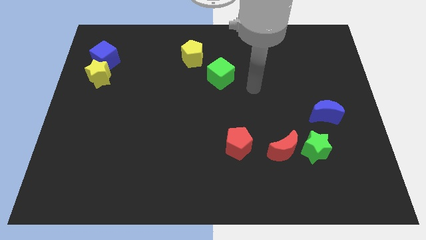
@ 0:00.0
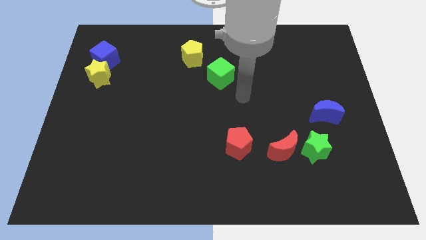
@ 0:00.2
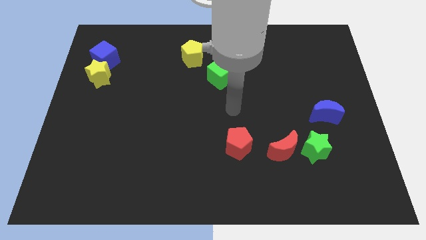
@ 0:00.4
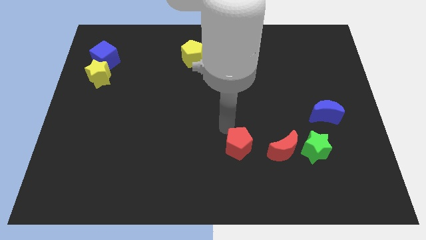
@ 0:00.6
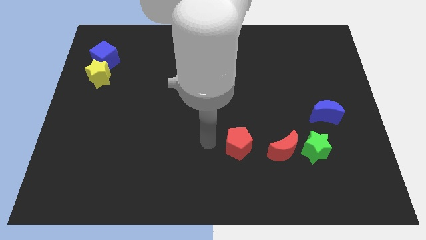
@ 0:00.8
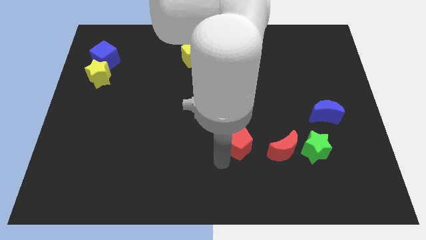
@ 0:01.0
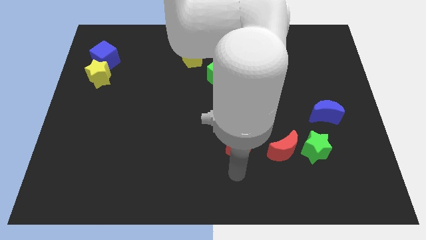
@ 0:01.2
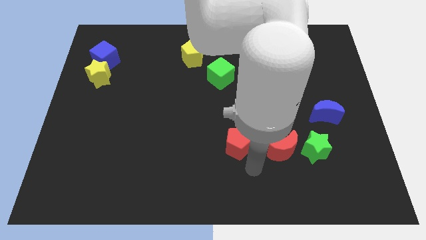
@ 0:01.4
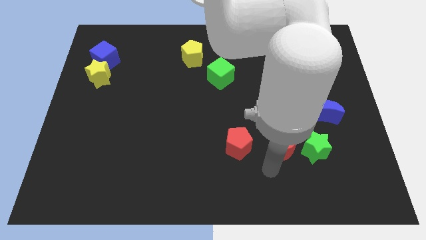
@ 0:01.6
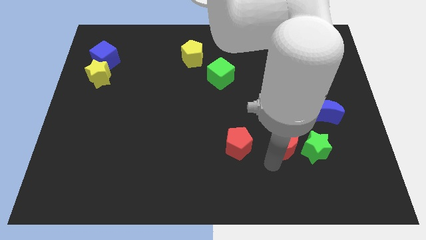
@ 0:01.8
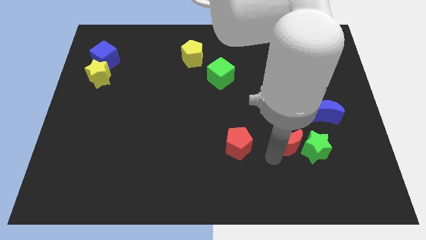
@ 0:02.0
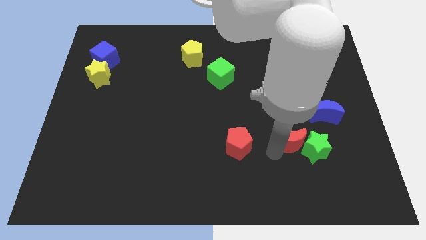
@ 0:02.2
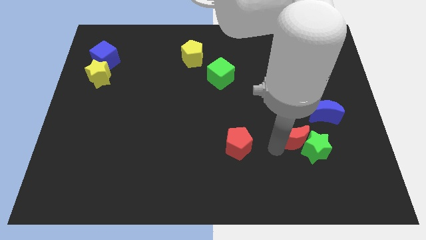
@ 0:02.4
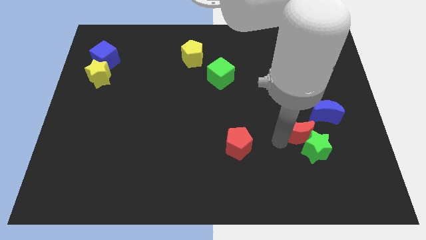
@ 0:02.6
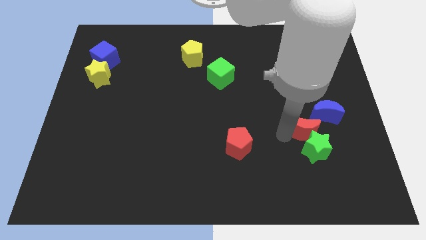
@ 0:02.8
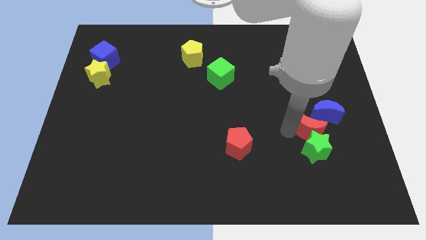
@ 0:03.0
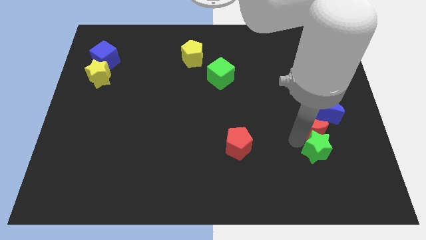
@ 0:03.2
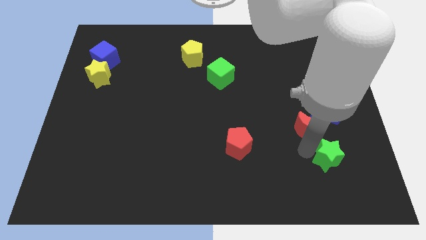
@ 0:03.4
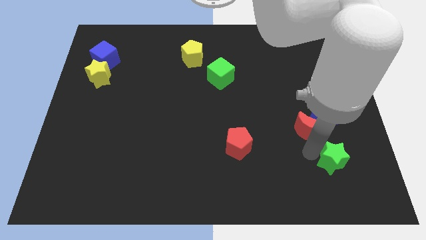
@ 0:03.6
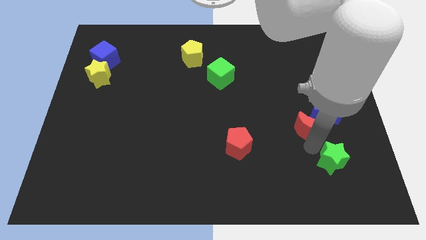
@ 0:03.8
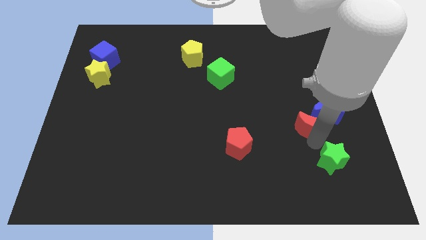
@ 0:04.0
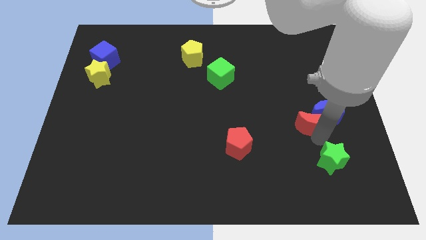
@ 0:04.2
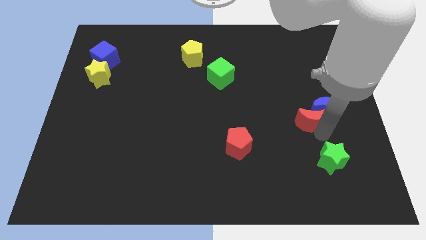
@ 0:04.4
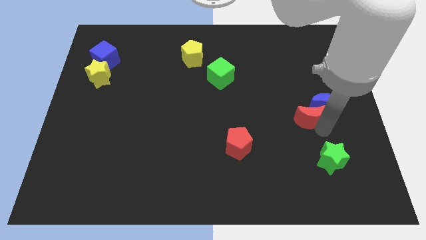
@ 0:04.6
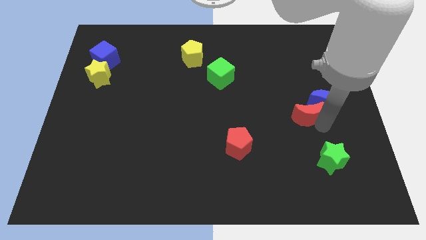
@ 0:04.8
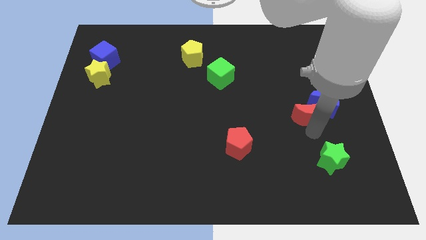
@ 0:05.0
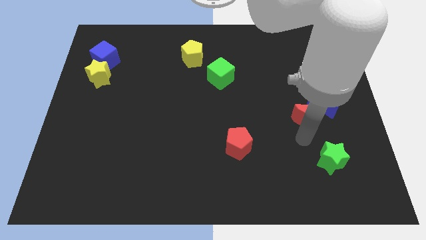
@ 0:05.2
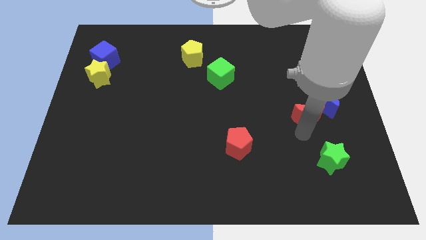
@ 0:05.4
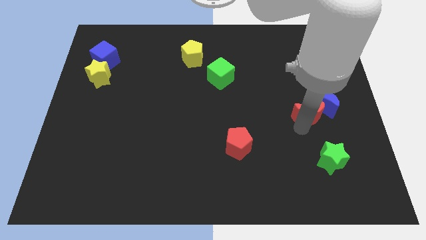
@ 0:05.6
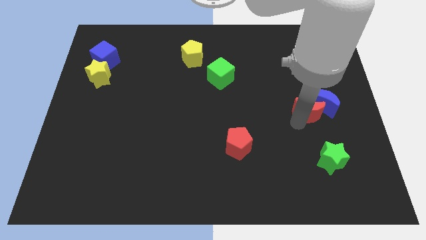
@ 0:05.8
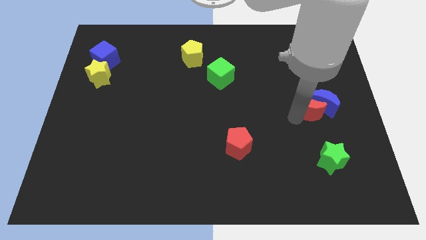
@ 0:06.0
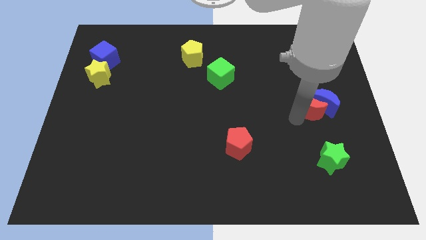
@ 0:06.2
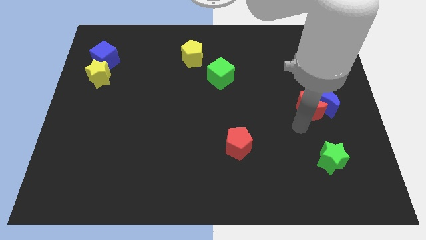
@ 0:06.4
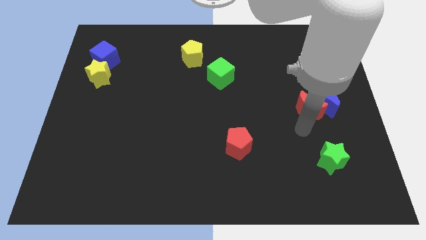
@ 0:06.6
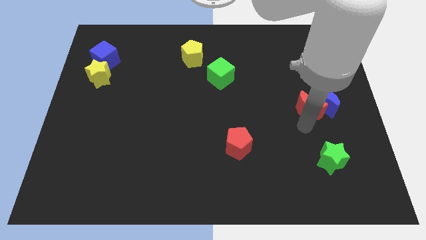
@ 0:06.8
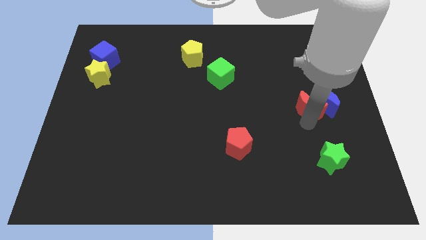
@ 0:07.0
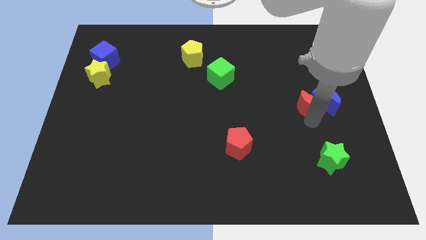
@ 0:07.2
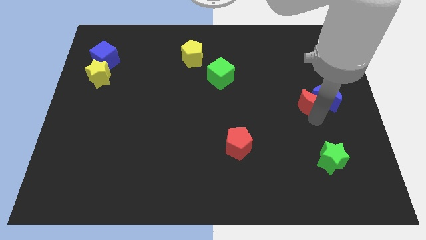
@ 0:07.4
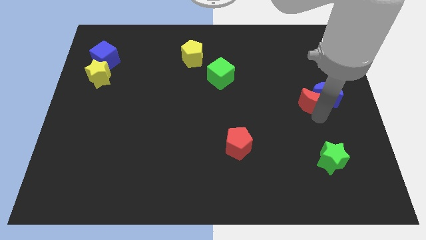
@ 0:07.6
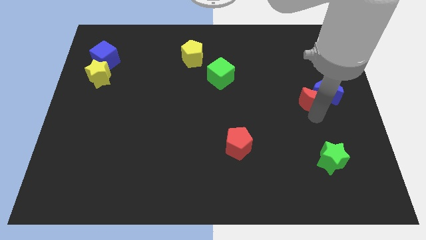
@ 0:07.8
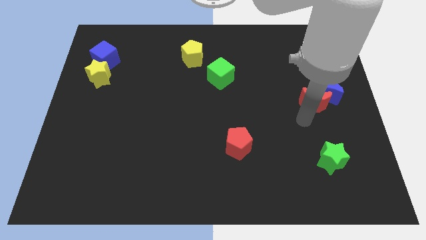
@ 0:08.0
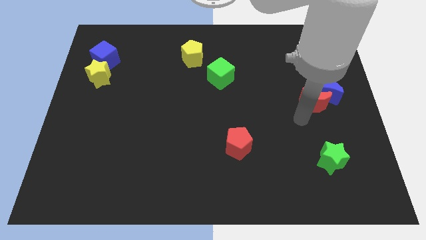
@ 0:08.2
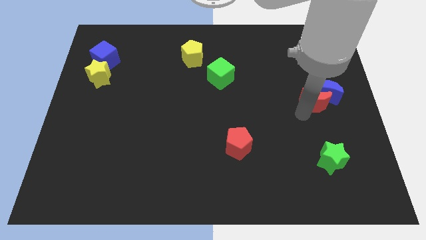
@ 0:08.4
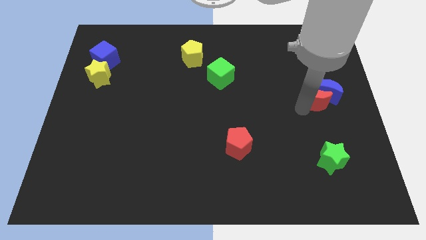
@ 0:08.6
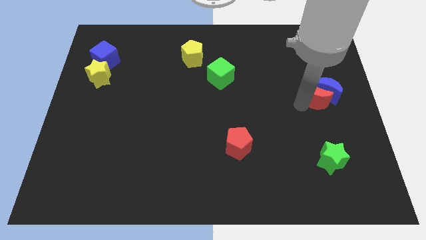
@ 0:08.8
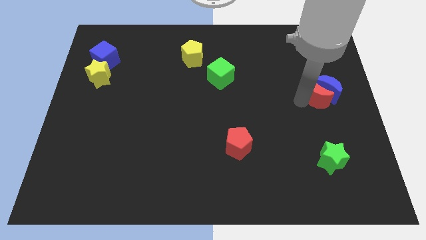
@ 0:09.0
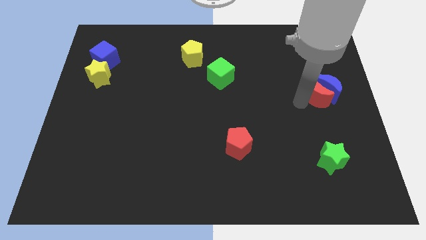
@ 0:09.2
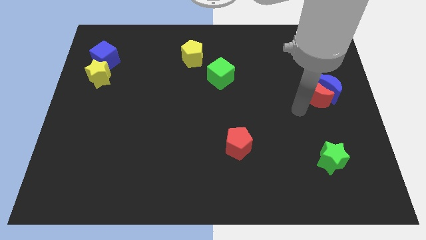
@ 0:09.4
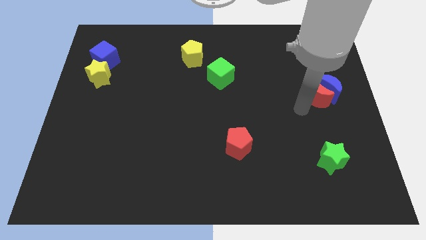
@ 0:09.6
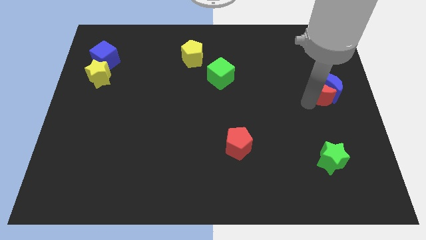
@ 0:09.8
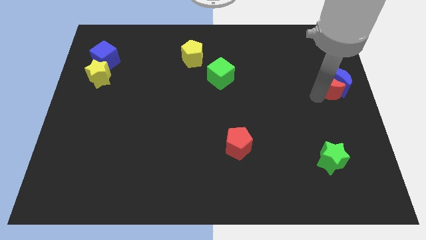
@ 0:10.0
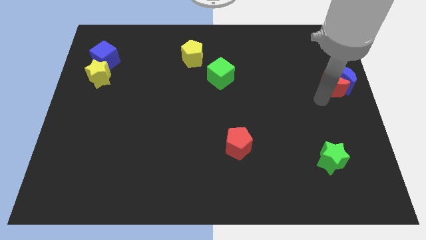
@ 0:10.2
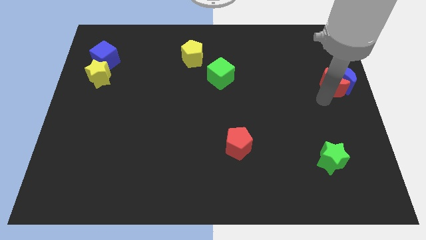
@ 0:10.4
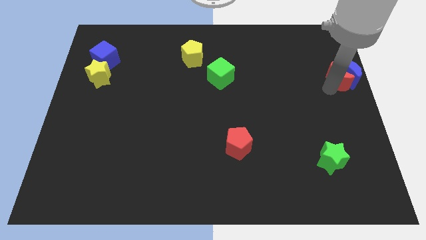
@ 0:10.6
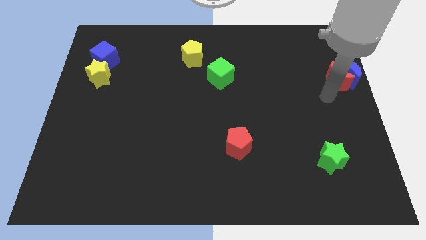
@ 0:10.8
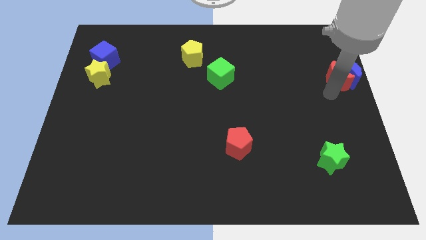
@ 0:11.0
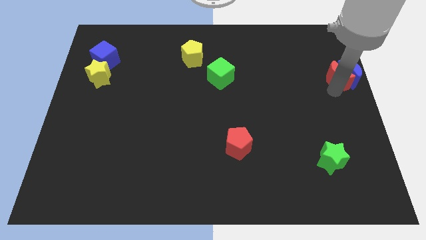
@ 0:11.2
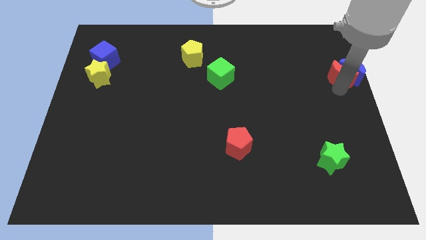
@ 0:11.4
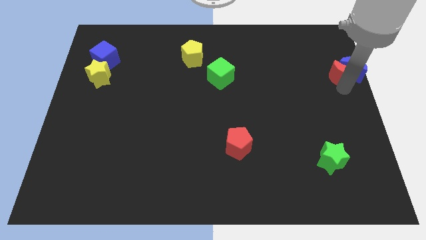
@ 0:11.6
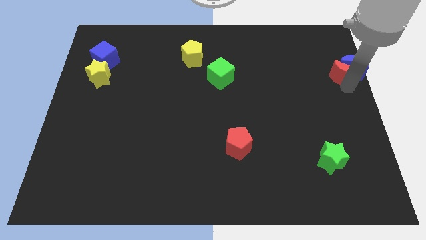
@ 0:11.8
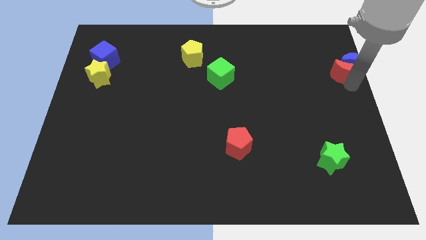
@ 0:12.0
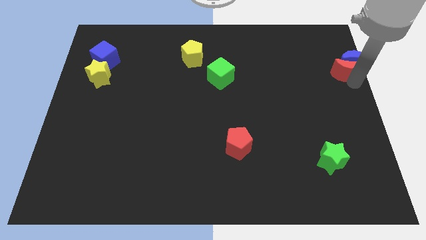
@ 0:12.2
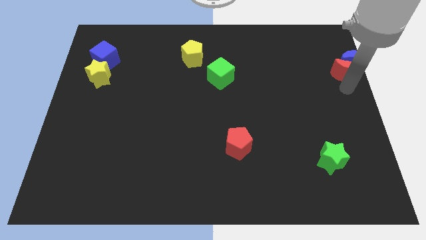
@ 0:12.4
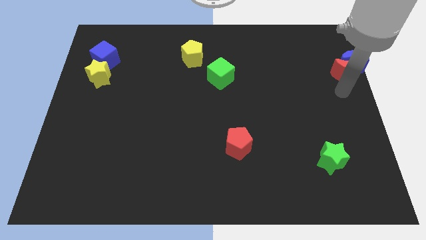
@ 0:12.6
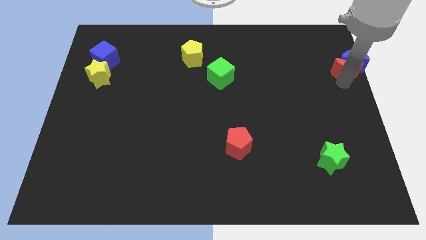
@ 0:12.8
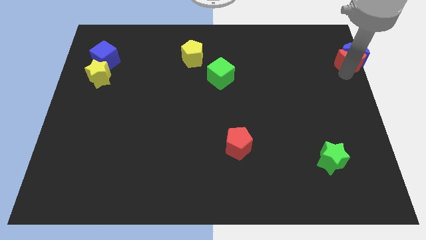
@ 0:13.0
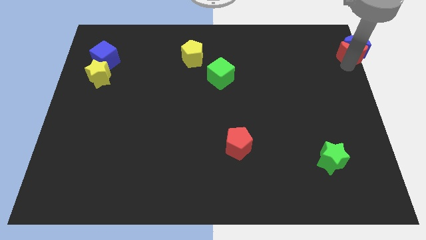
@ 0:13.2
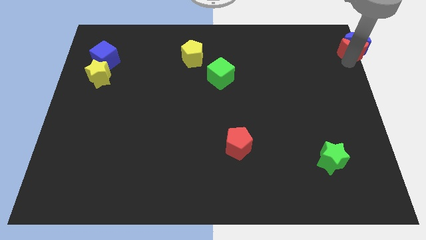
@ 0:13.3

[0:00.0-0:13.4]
put the red moon to the top right
